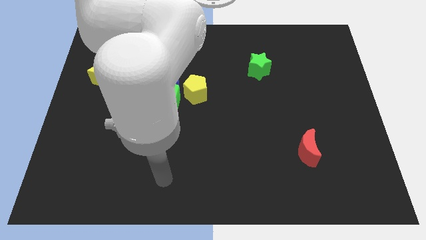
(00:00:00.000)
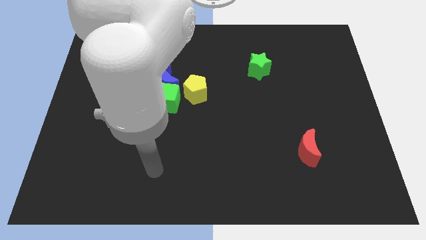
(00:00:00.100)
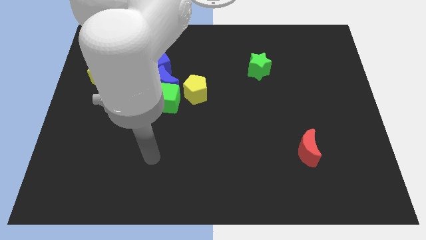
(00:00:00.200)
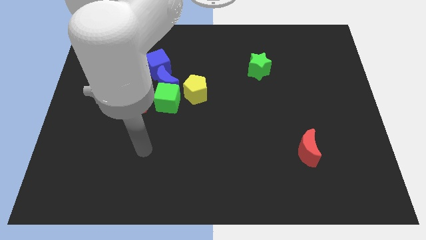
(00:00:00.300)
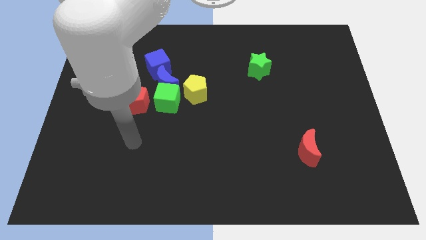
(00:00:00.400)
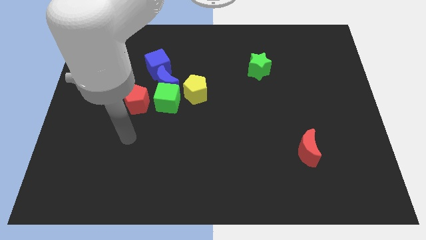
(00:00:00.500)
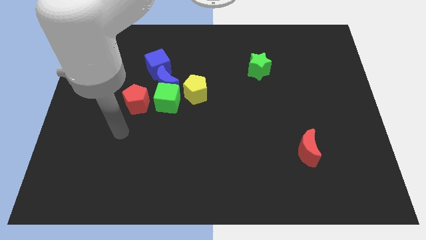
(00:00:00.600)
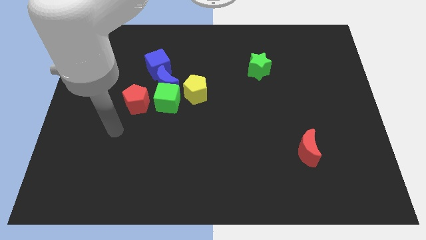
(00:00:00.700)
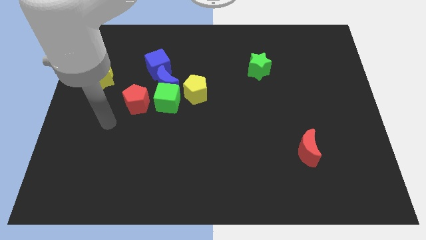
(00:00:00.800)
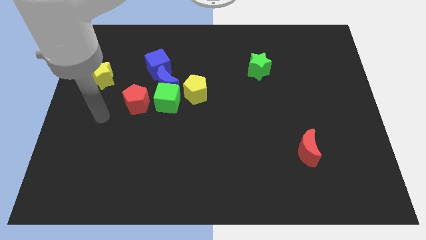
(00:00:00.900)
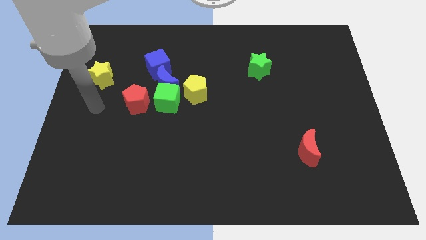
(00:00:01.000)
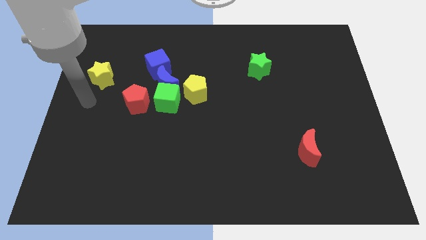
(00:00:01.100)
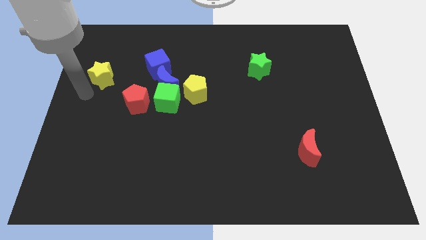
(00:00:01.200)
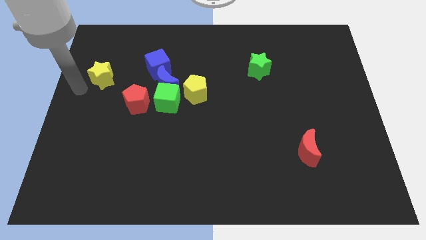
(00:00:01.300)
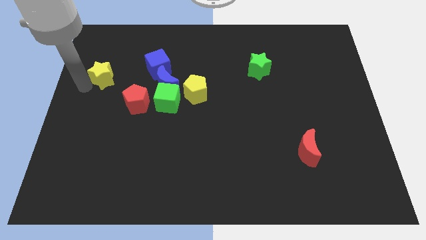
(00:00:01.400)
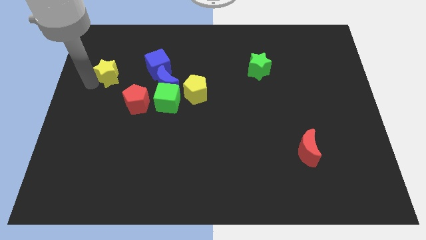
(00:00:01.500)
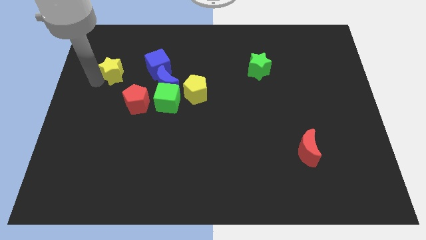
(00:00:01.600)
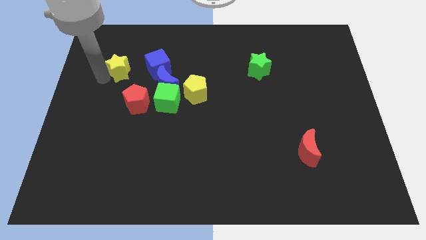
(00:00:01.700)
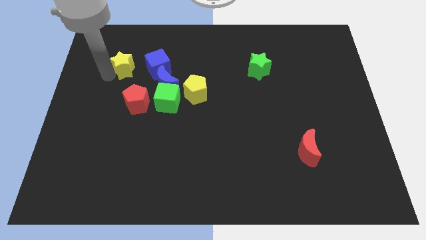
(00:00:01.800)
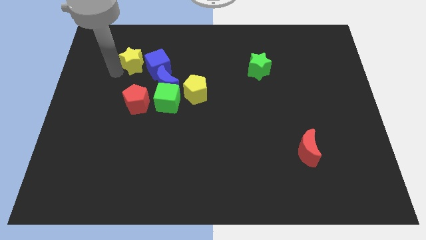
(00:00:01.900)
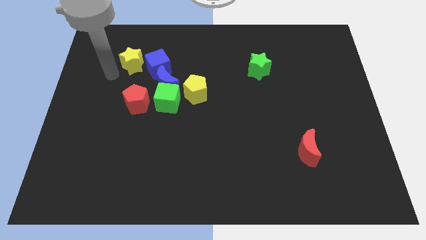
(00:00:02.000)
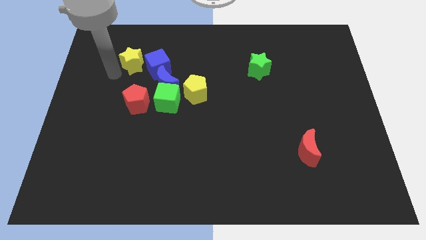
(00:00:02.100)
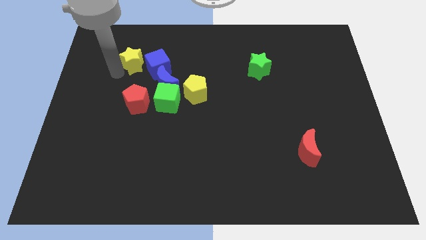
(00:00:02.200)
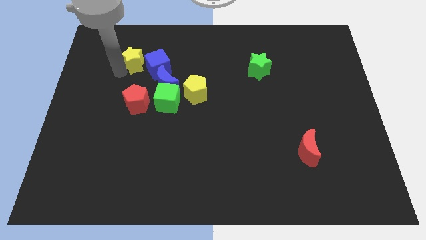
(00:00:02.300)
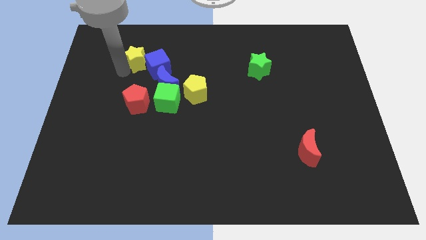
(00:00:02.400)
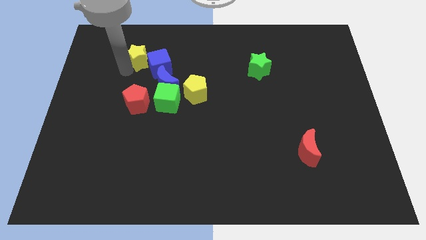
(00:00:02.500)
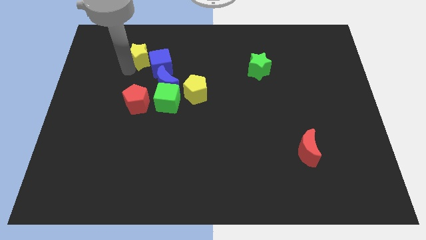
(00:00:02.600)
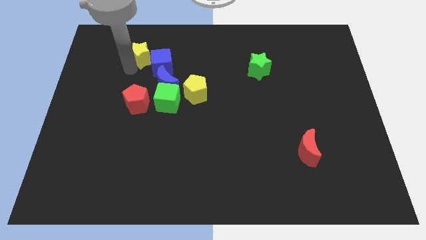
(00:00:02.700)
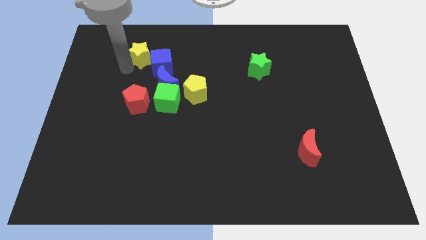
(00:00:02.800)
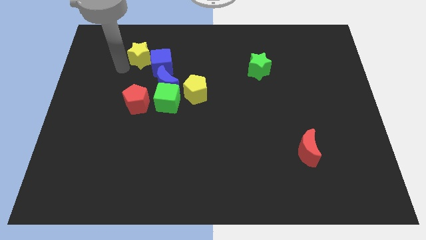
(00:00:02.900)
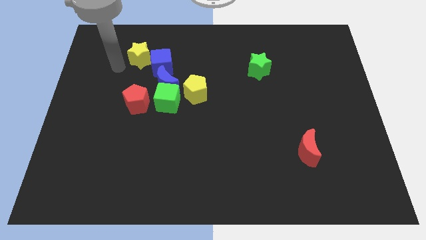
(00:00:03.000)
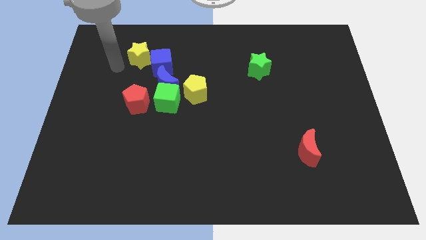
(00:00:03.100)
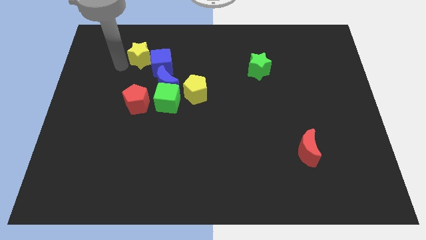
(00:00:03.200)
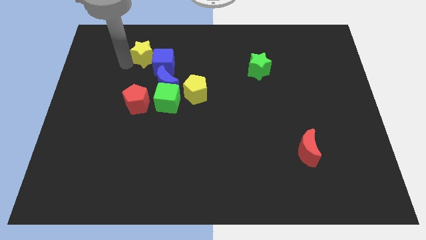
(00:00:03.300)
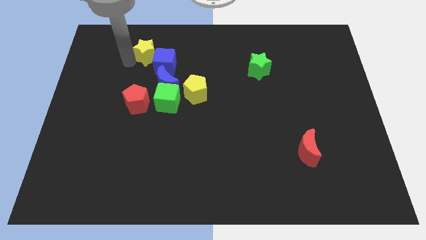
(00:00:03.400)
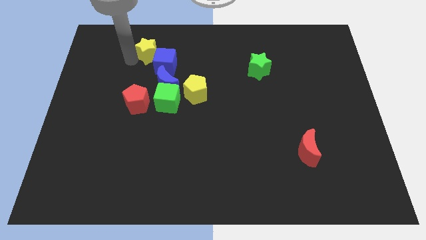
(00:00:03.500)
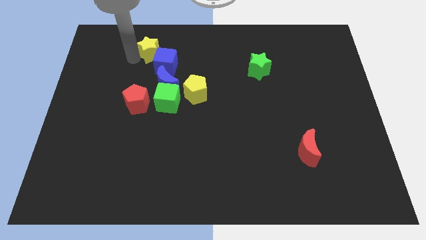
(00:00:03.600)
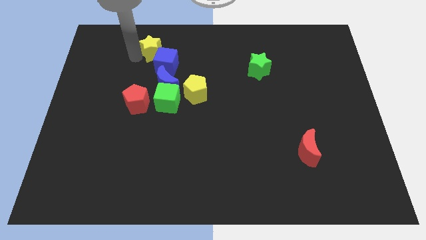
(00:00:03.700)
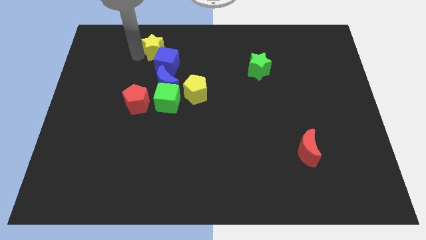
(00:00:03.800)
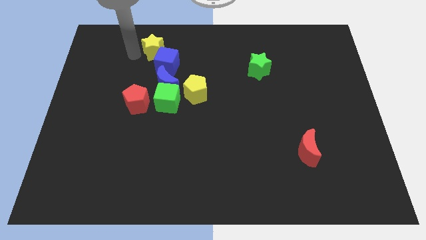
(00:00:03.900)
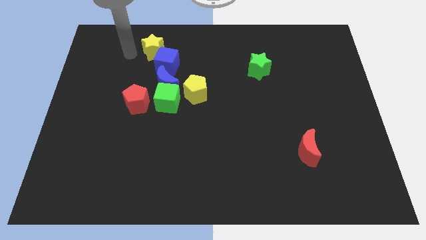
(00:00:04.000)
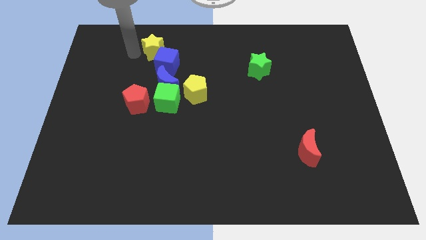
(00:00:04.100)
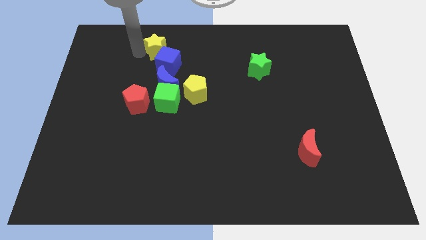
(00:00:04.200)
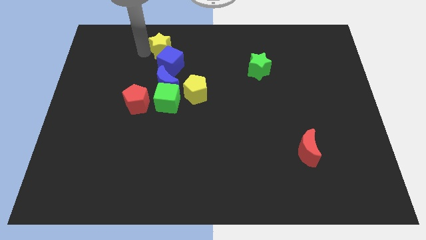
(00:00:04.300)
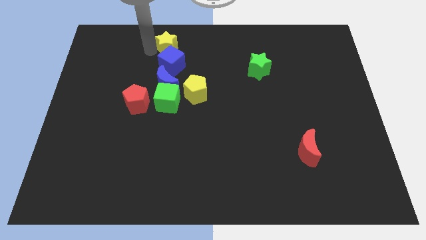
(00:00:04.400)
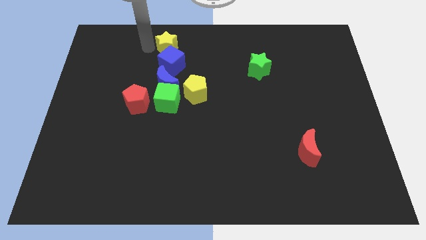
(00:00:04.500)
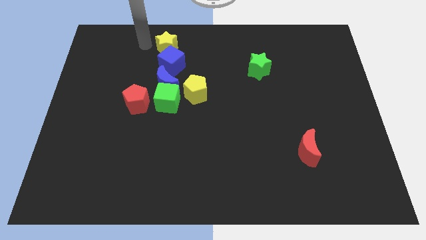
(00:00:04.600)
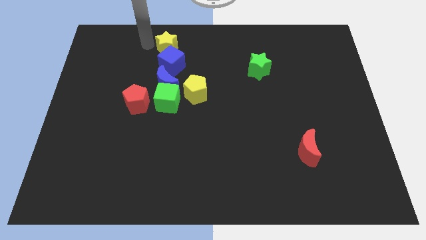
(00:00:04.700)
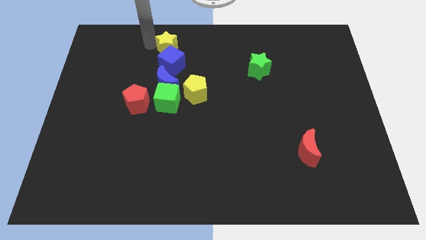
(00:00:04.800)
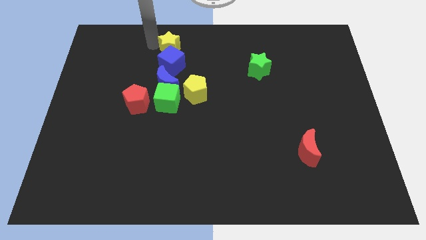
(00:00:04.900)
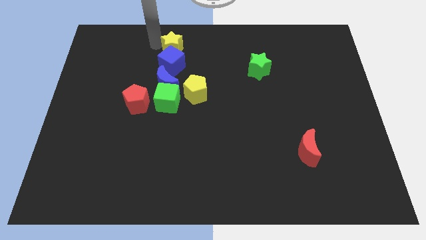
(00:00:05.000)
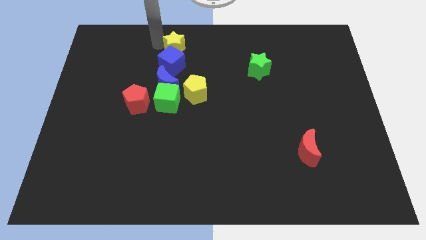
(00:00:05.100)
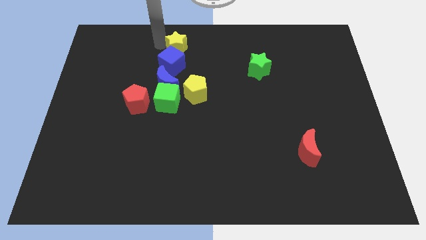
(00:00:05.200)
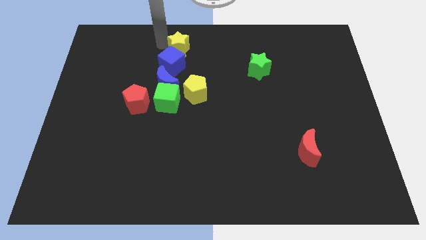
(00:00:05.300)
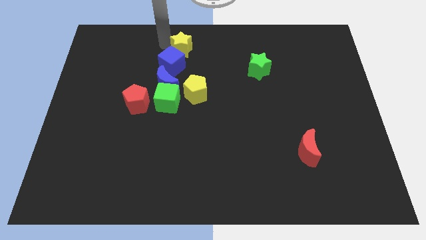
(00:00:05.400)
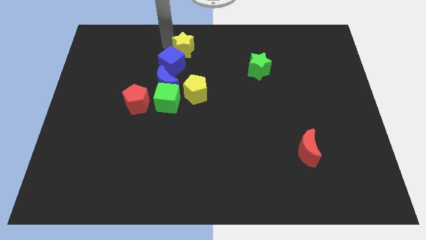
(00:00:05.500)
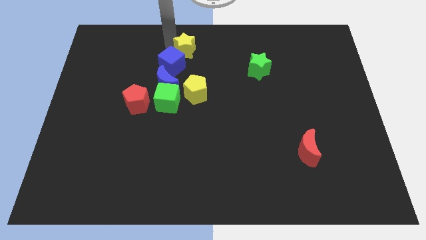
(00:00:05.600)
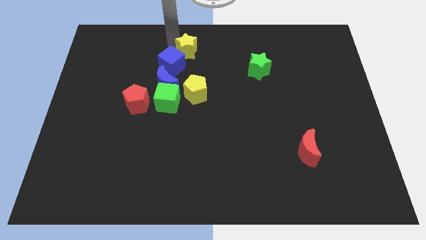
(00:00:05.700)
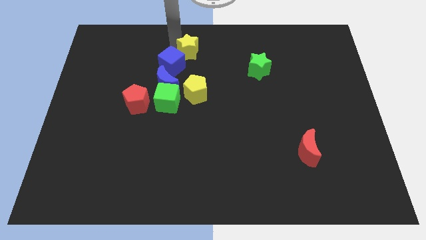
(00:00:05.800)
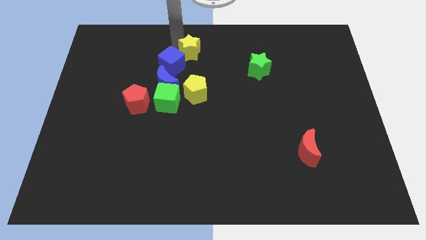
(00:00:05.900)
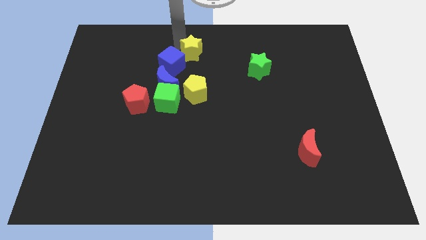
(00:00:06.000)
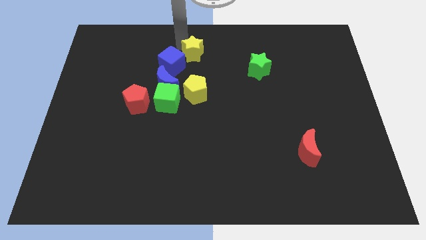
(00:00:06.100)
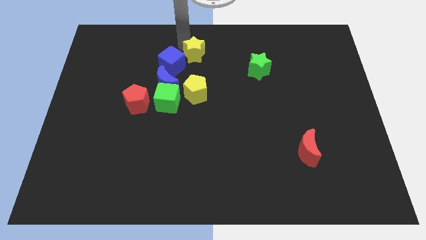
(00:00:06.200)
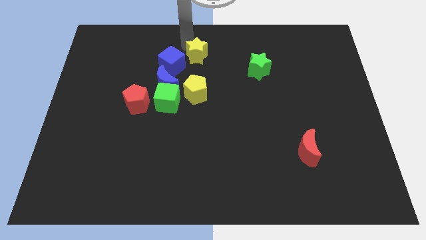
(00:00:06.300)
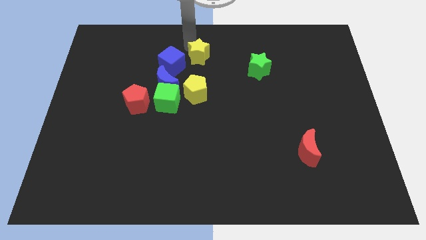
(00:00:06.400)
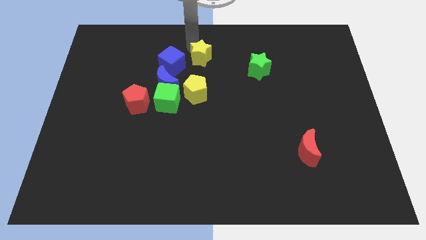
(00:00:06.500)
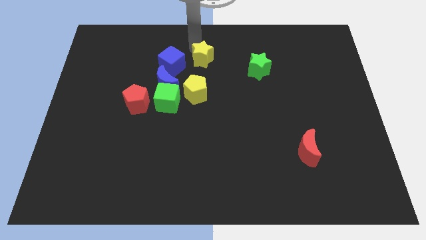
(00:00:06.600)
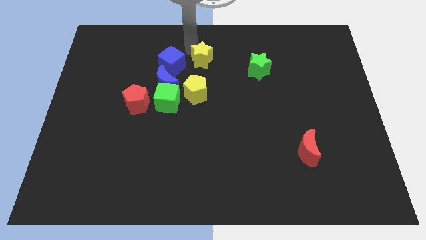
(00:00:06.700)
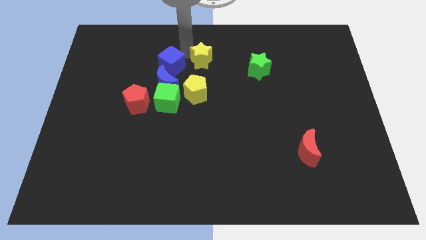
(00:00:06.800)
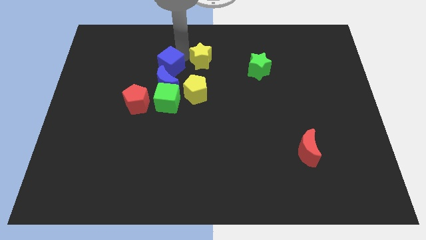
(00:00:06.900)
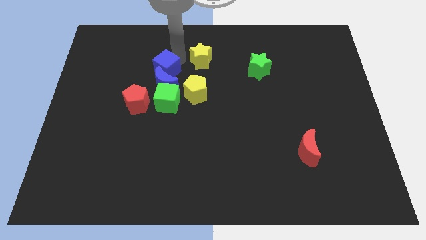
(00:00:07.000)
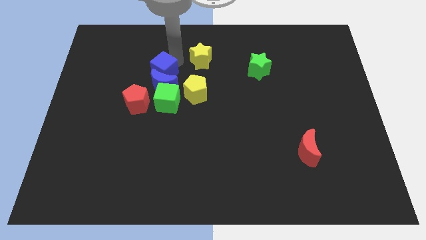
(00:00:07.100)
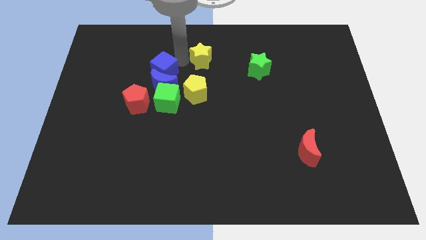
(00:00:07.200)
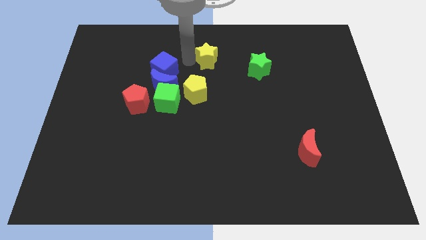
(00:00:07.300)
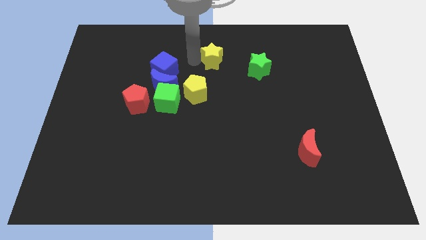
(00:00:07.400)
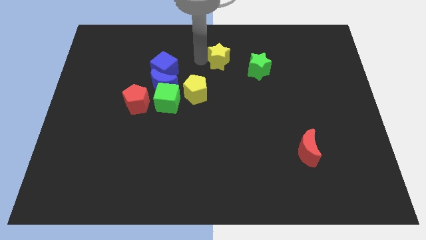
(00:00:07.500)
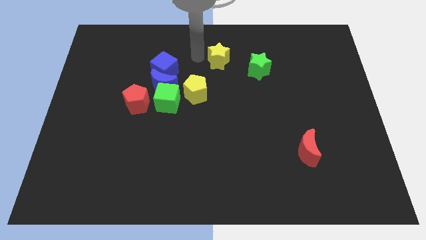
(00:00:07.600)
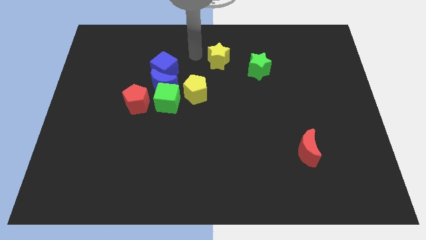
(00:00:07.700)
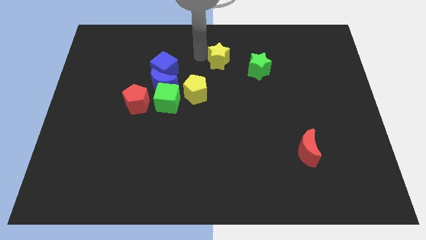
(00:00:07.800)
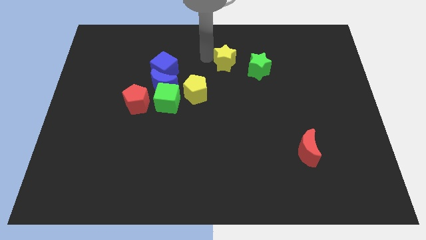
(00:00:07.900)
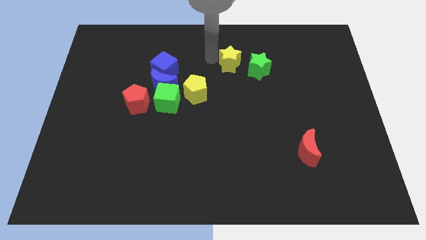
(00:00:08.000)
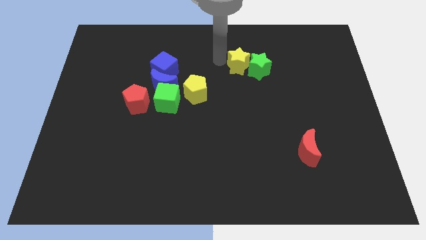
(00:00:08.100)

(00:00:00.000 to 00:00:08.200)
push the yellow star towards the green star
